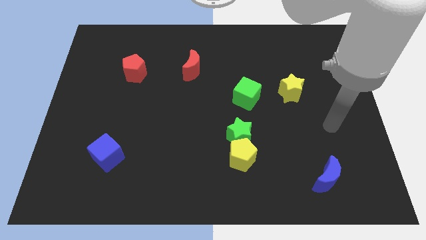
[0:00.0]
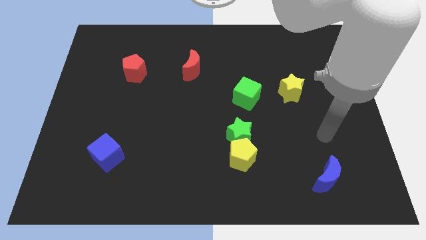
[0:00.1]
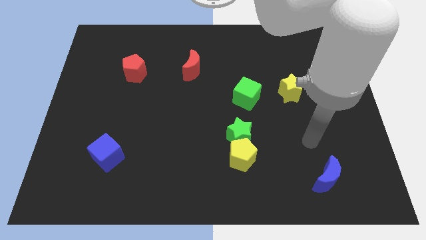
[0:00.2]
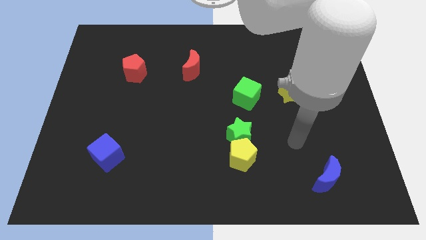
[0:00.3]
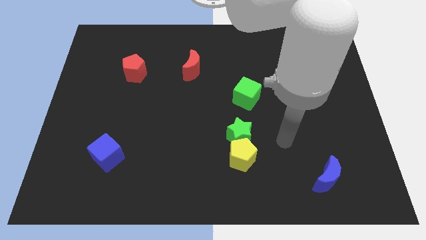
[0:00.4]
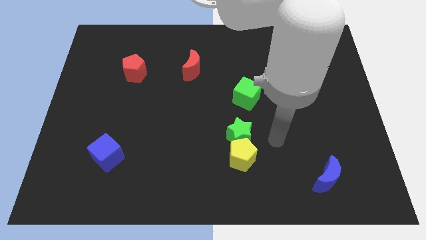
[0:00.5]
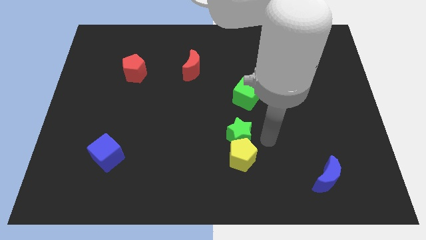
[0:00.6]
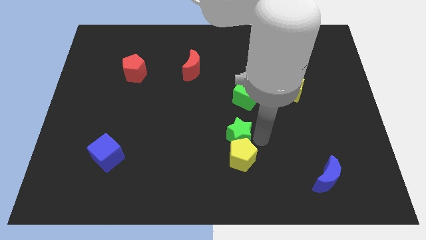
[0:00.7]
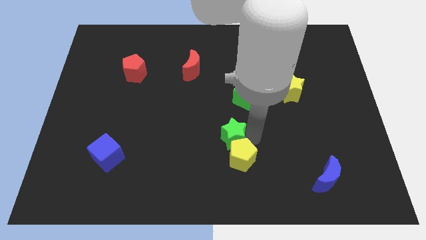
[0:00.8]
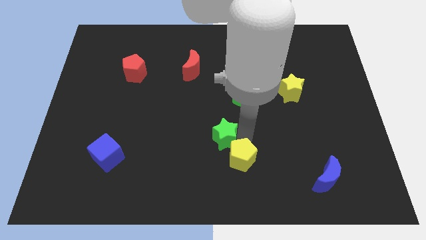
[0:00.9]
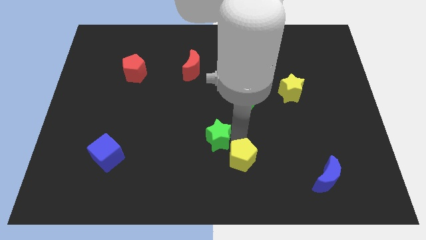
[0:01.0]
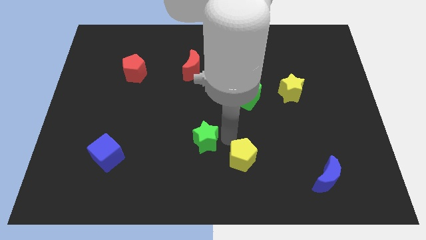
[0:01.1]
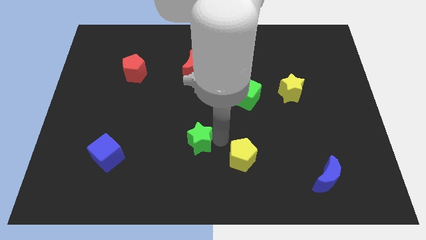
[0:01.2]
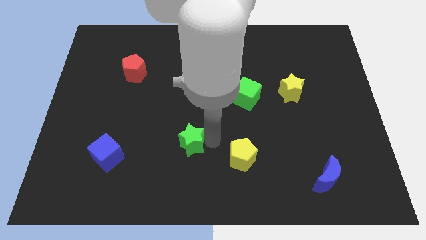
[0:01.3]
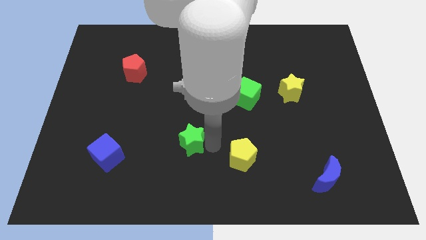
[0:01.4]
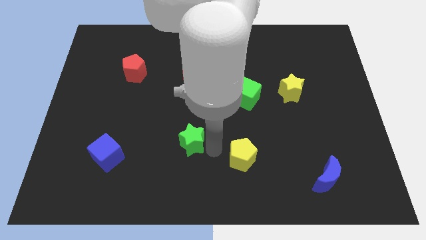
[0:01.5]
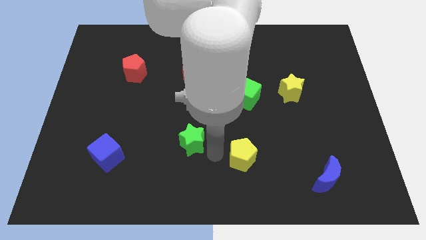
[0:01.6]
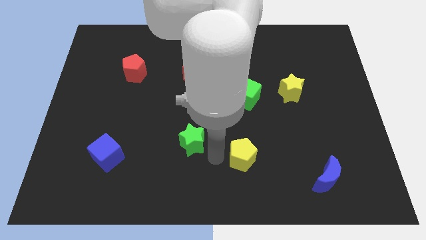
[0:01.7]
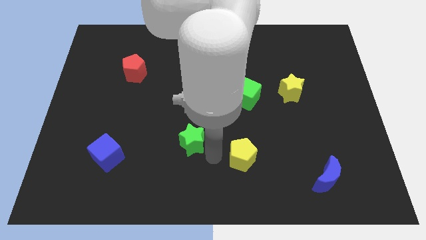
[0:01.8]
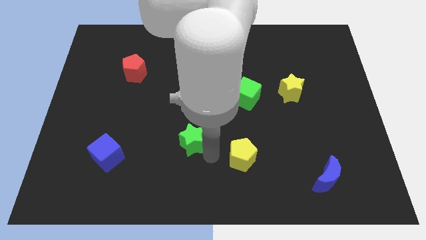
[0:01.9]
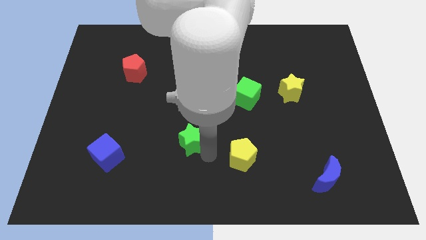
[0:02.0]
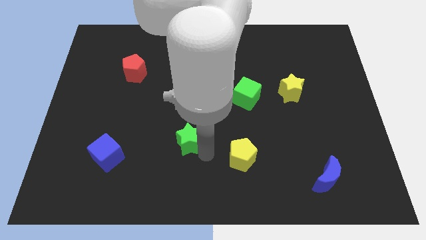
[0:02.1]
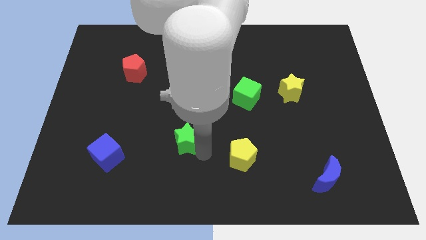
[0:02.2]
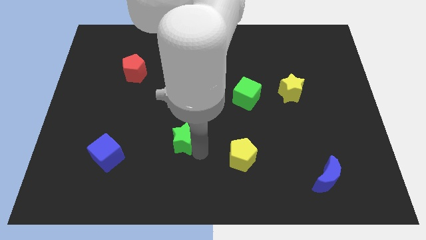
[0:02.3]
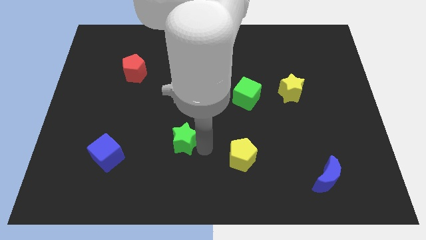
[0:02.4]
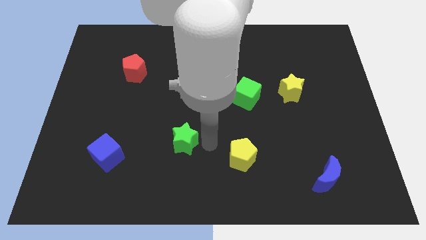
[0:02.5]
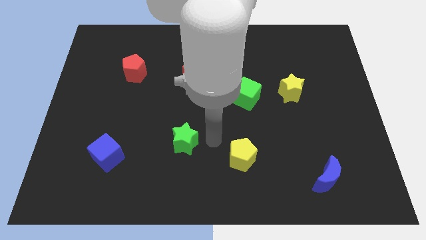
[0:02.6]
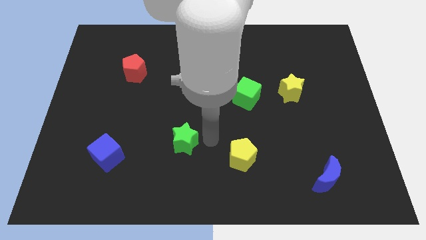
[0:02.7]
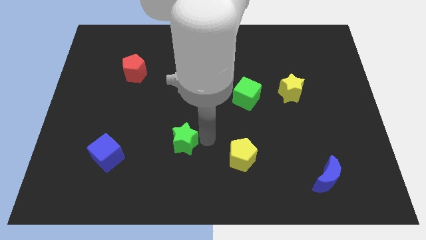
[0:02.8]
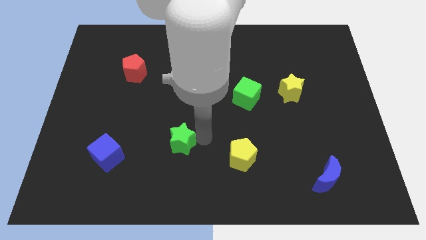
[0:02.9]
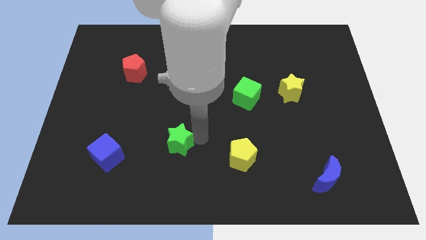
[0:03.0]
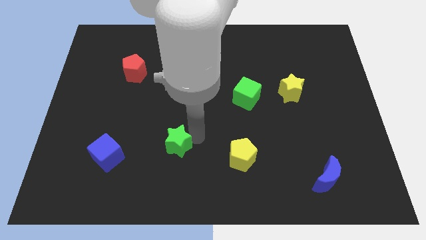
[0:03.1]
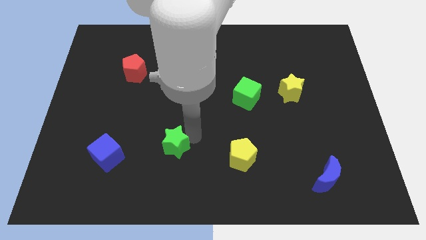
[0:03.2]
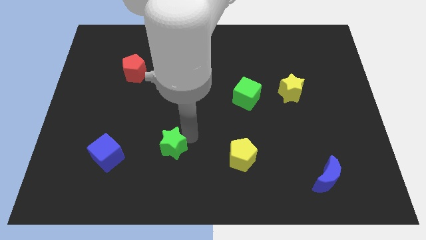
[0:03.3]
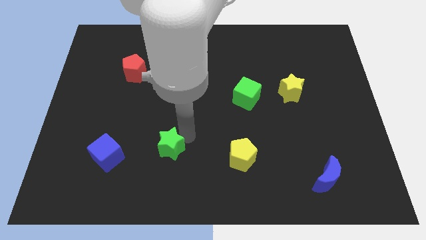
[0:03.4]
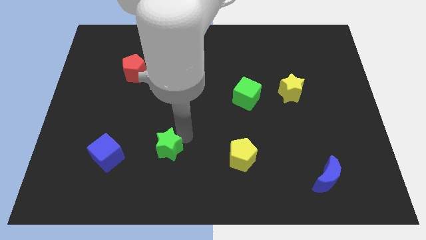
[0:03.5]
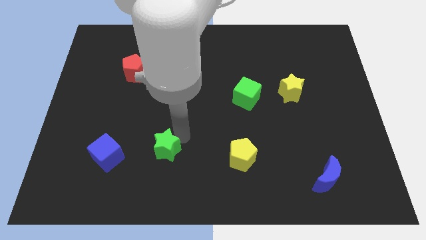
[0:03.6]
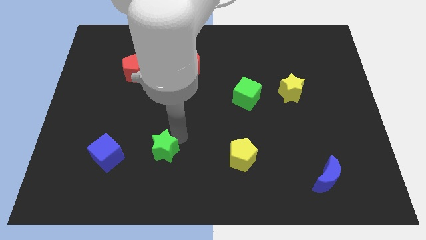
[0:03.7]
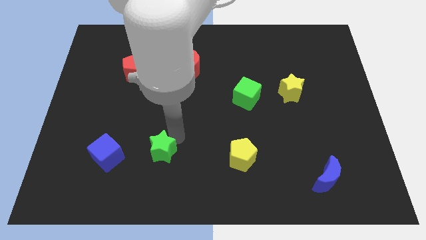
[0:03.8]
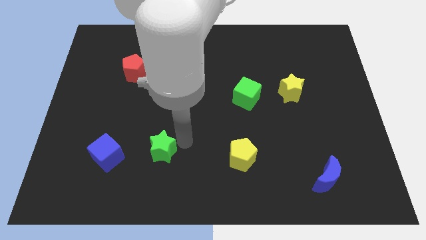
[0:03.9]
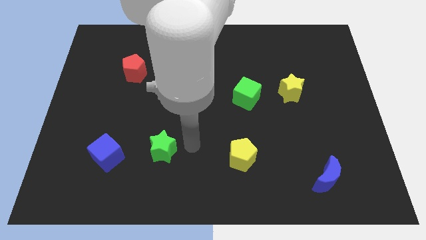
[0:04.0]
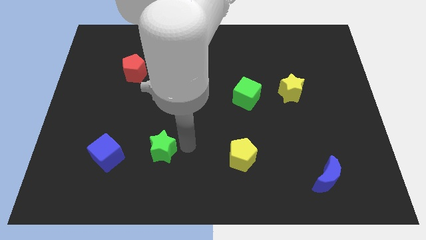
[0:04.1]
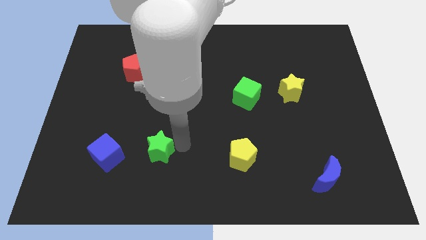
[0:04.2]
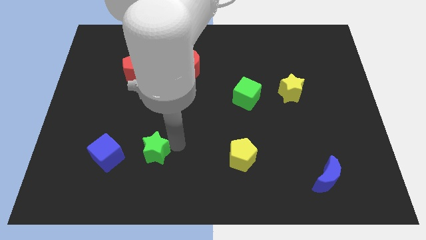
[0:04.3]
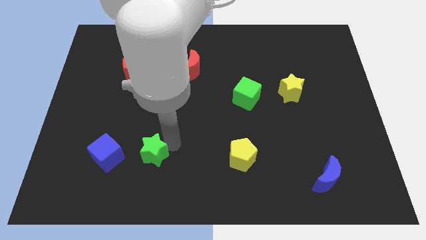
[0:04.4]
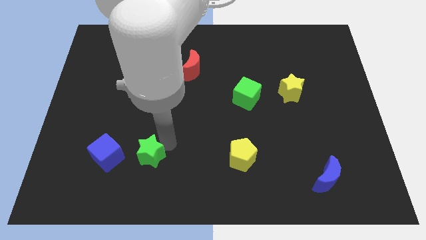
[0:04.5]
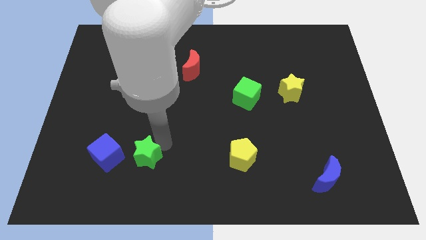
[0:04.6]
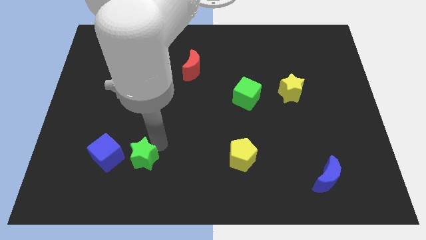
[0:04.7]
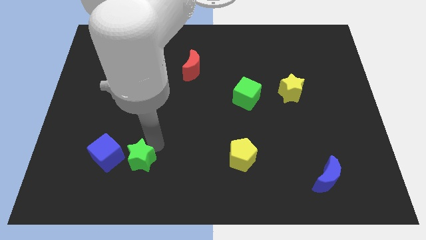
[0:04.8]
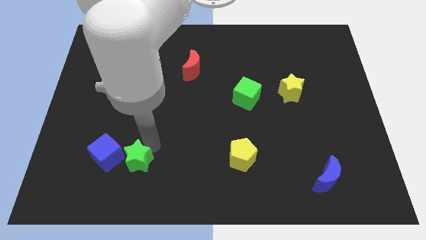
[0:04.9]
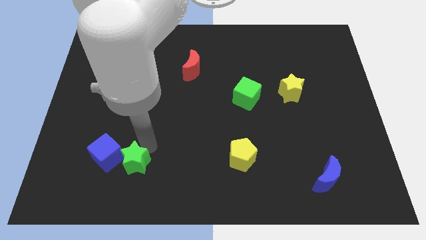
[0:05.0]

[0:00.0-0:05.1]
slide the green star to the blue cube
